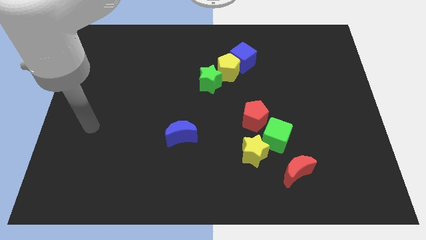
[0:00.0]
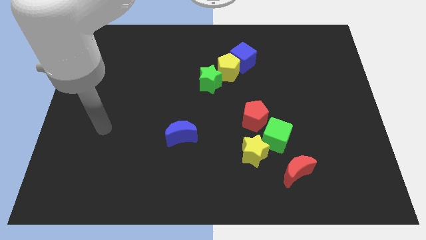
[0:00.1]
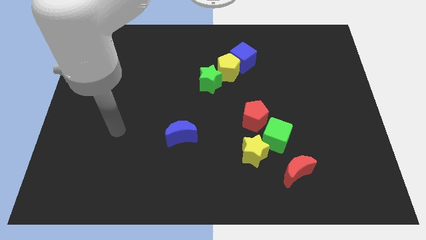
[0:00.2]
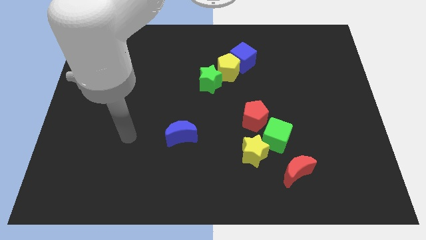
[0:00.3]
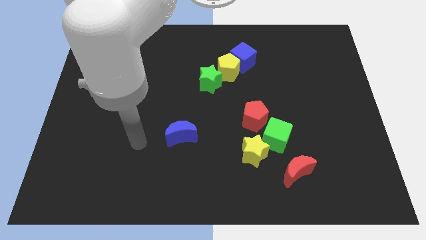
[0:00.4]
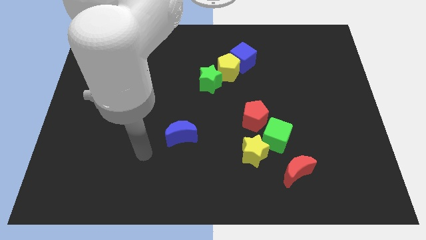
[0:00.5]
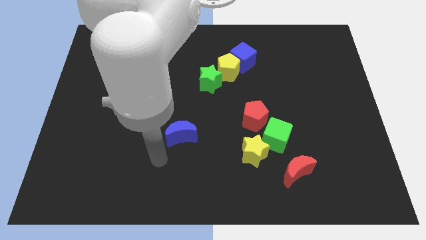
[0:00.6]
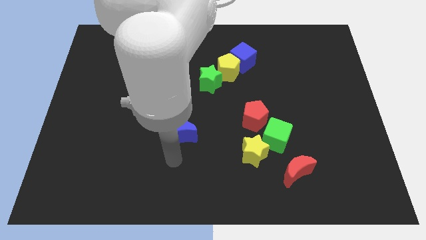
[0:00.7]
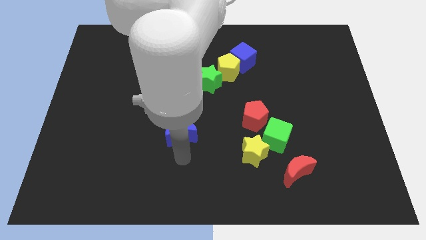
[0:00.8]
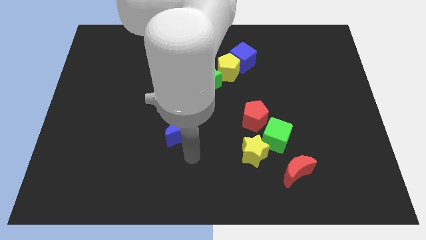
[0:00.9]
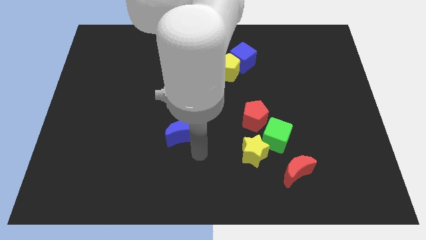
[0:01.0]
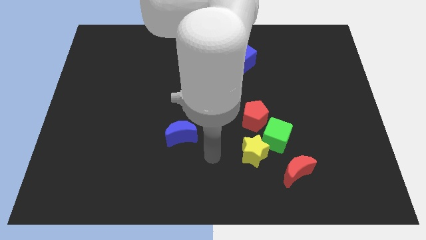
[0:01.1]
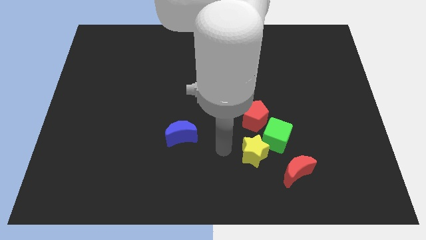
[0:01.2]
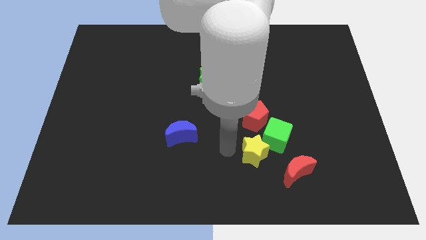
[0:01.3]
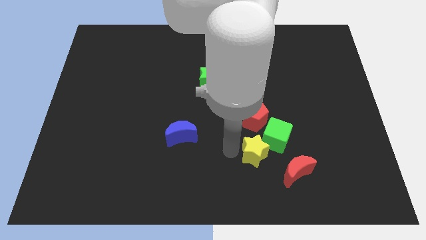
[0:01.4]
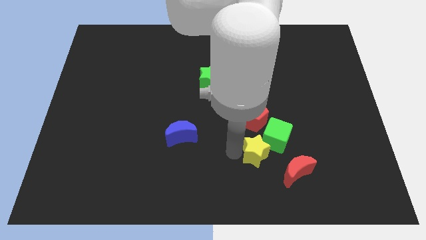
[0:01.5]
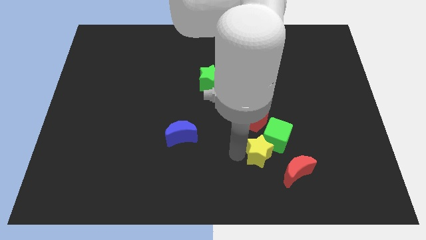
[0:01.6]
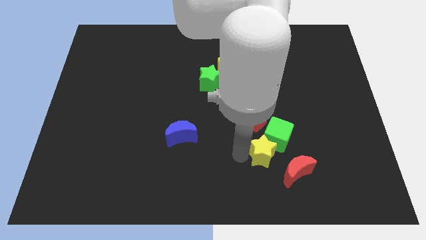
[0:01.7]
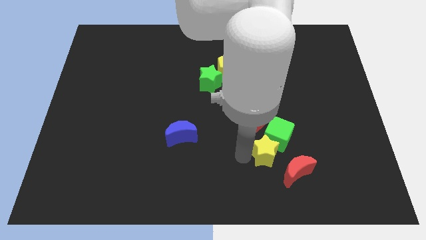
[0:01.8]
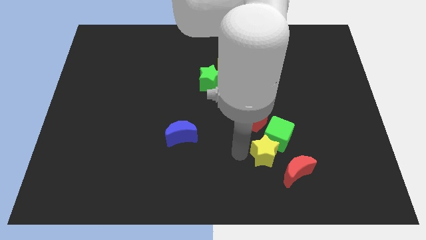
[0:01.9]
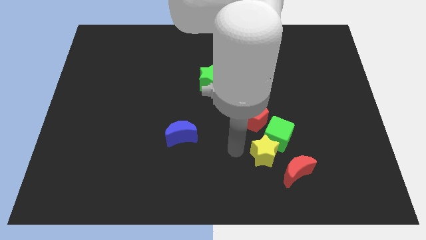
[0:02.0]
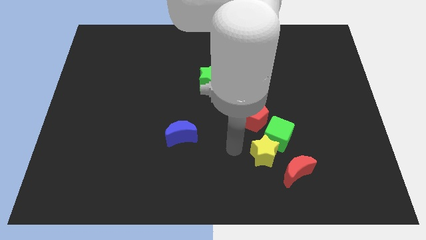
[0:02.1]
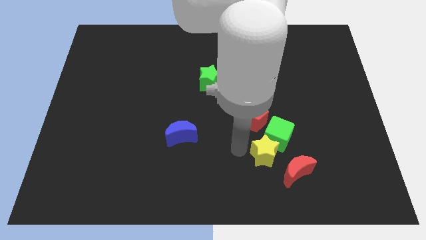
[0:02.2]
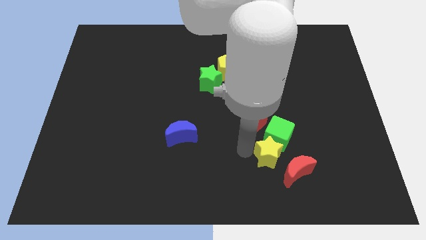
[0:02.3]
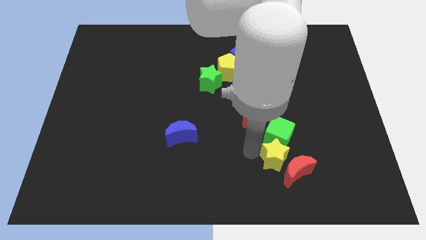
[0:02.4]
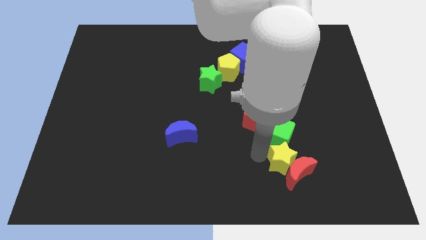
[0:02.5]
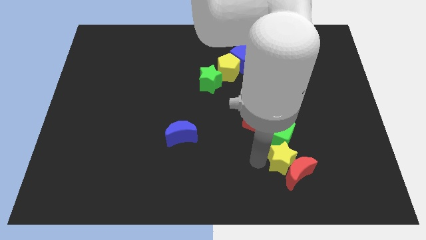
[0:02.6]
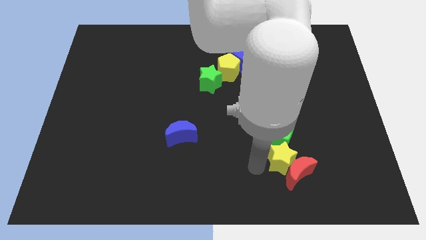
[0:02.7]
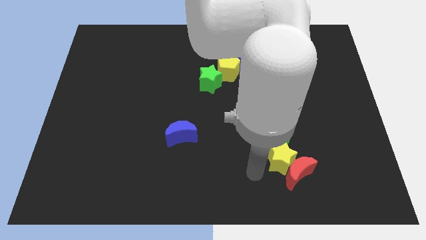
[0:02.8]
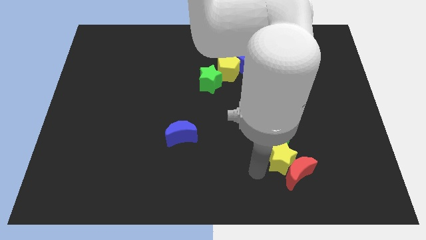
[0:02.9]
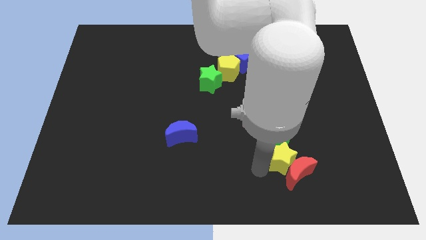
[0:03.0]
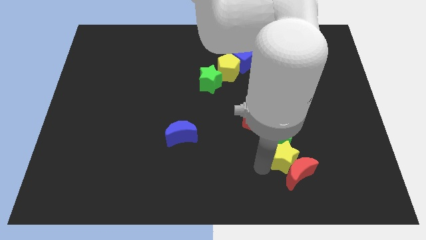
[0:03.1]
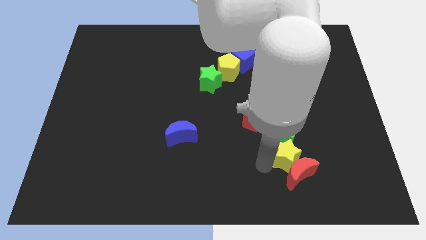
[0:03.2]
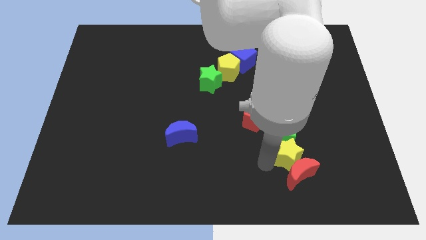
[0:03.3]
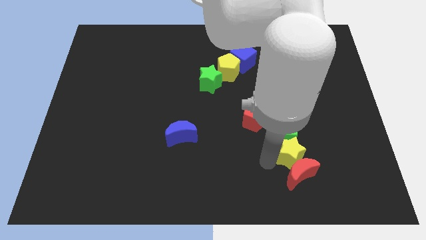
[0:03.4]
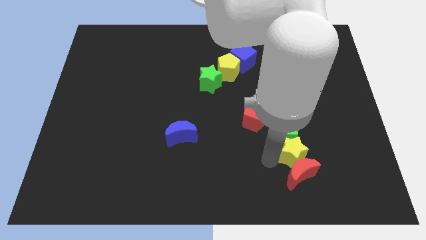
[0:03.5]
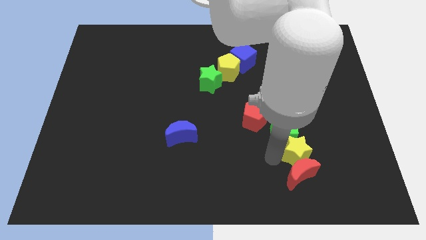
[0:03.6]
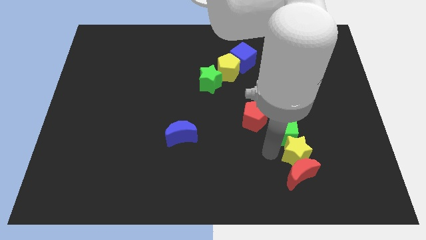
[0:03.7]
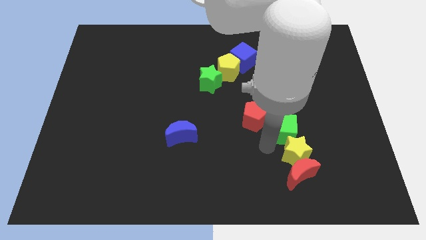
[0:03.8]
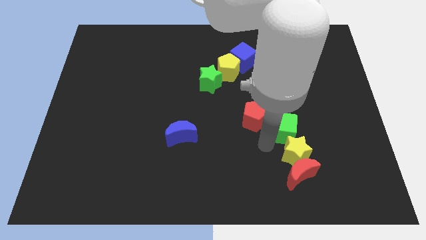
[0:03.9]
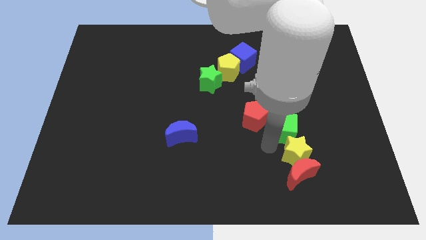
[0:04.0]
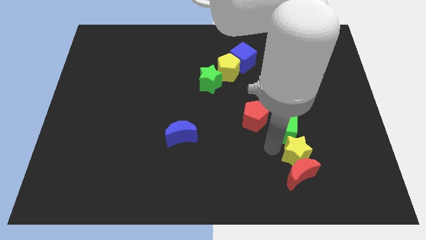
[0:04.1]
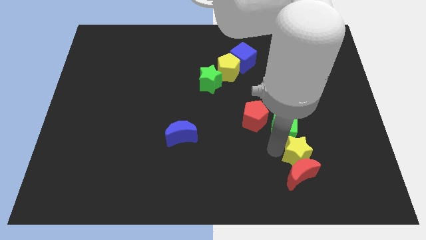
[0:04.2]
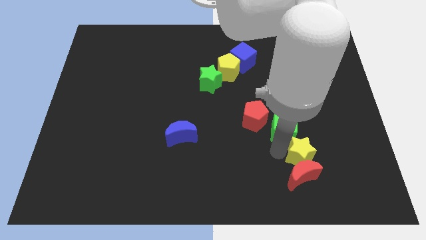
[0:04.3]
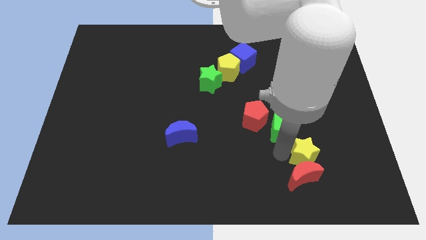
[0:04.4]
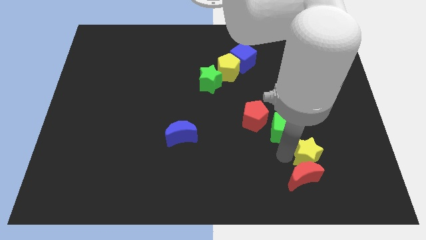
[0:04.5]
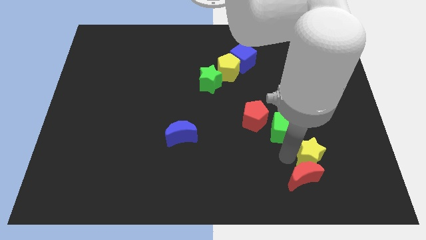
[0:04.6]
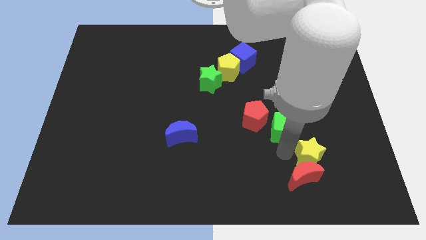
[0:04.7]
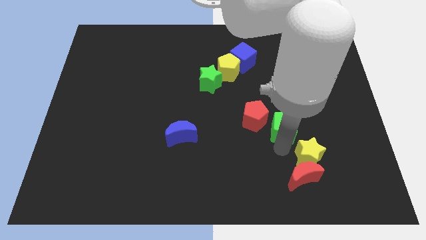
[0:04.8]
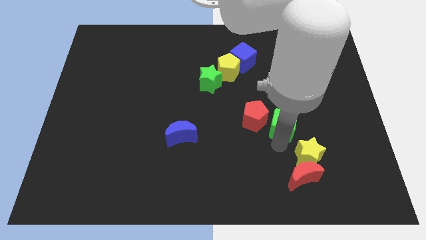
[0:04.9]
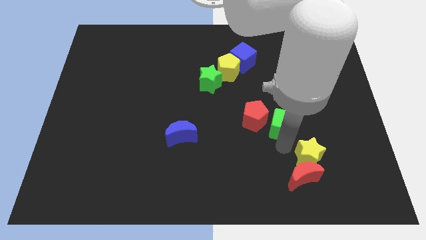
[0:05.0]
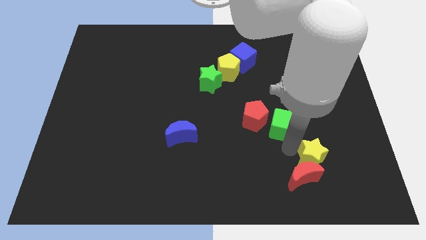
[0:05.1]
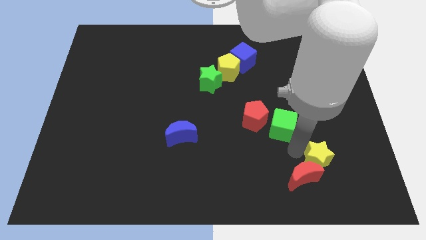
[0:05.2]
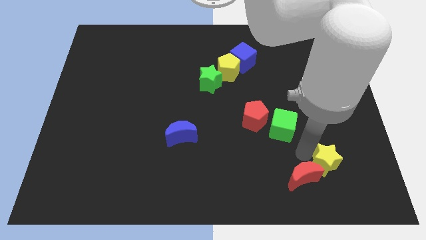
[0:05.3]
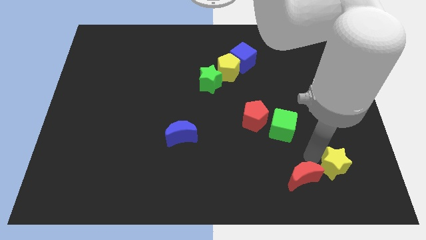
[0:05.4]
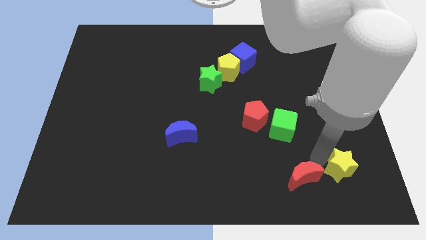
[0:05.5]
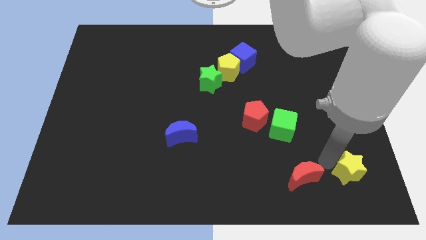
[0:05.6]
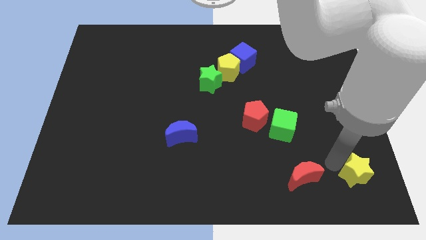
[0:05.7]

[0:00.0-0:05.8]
slide the yellow star to the lower right corner
